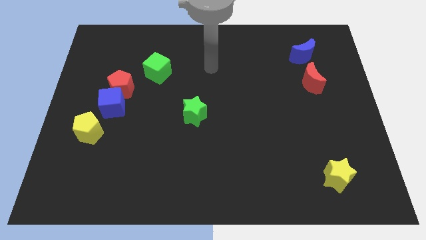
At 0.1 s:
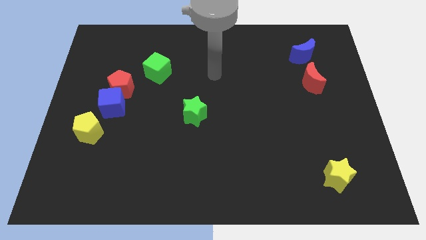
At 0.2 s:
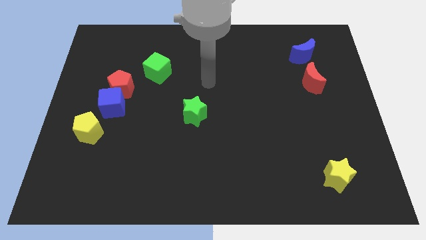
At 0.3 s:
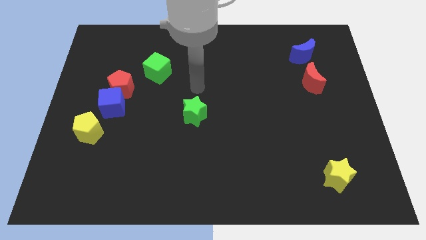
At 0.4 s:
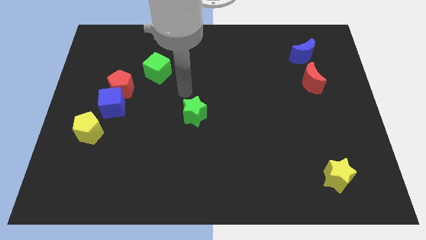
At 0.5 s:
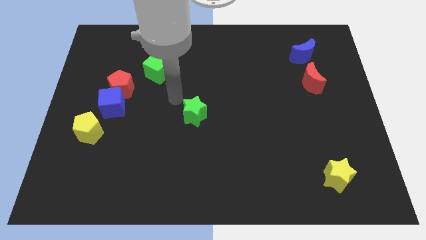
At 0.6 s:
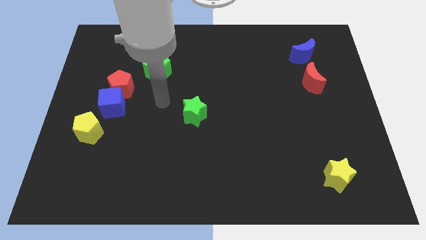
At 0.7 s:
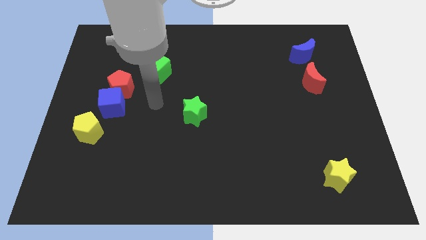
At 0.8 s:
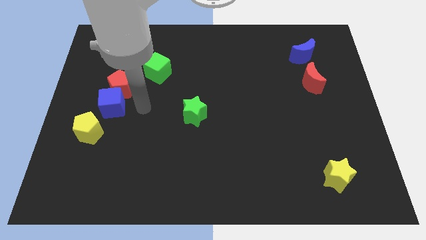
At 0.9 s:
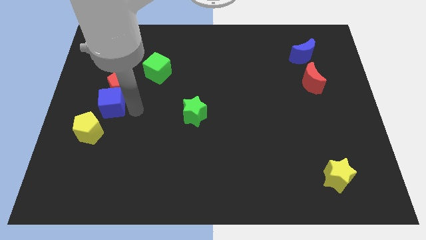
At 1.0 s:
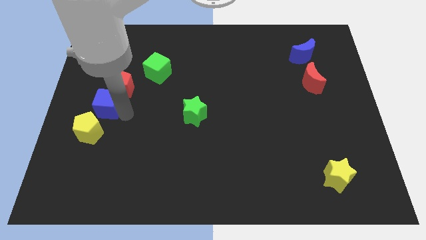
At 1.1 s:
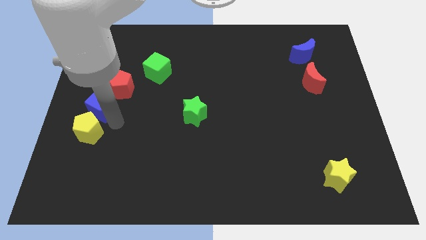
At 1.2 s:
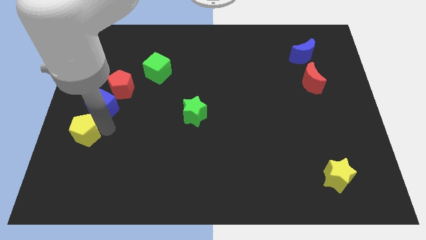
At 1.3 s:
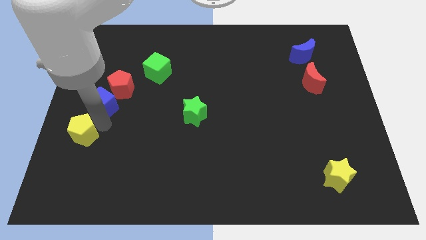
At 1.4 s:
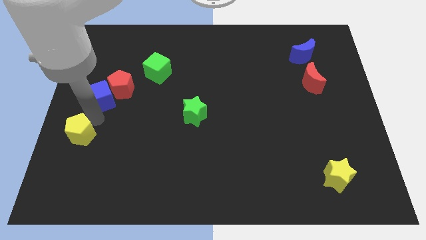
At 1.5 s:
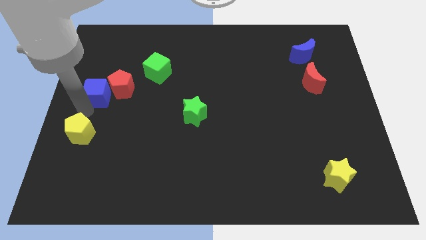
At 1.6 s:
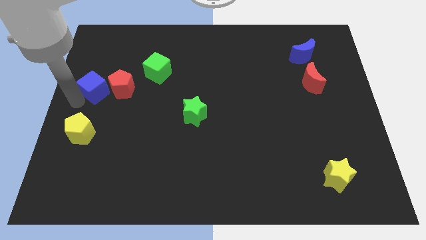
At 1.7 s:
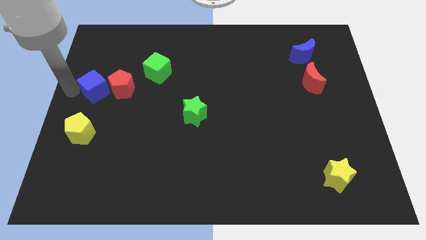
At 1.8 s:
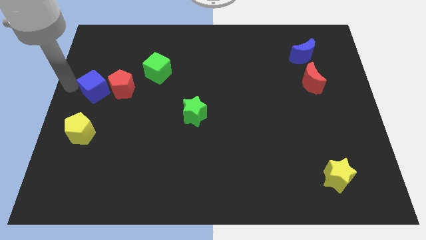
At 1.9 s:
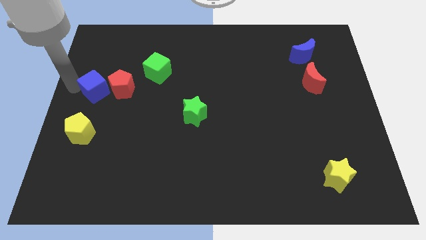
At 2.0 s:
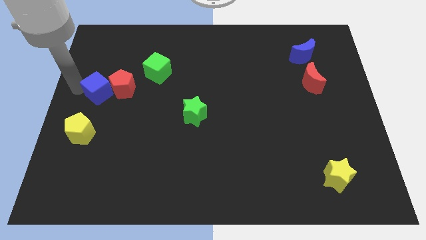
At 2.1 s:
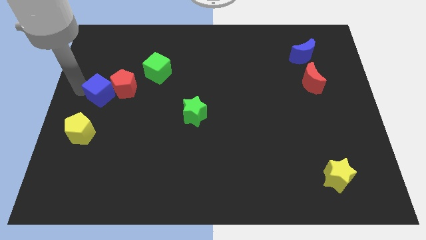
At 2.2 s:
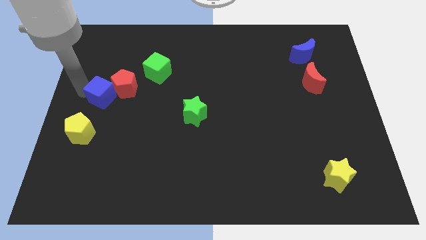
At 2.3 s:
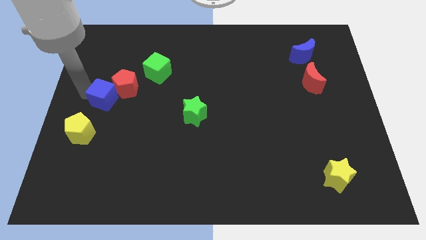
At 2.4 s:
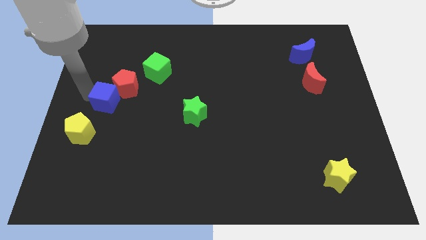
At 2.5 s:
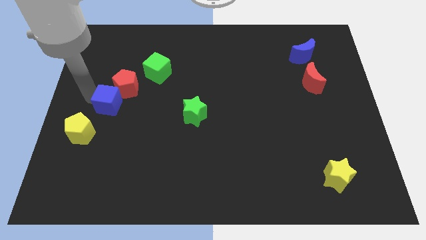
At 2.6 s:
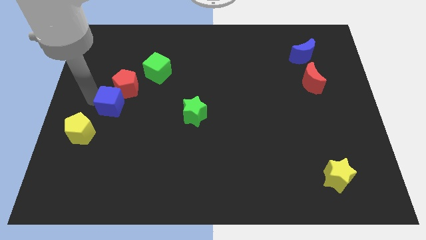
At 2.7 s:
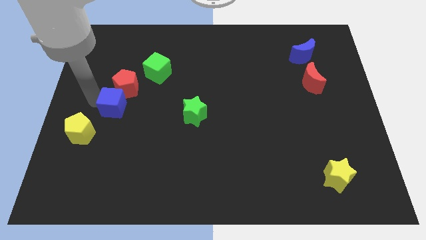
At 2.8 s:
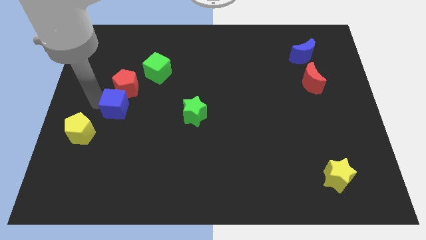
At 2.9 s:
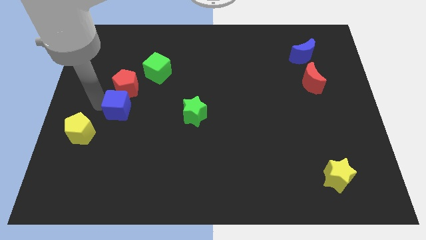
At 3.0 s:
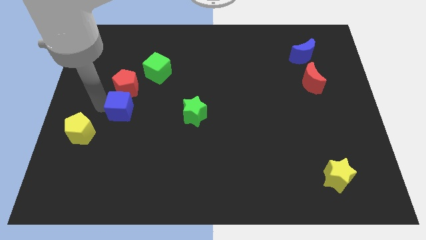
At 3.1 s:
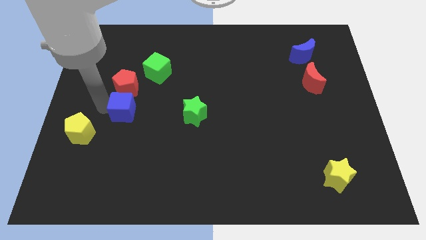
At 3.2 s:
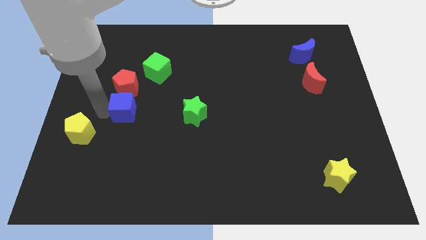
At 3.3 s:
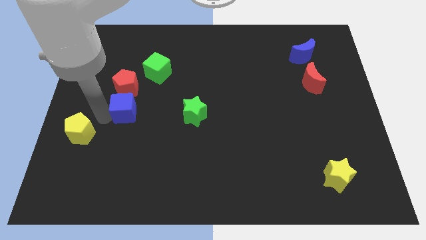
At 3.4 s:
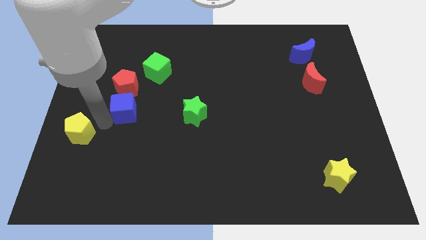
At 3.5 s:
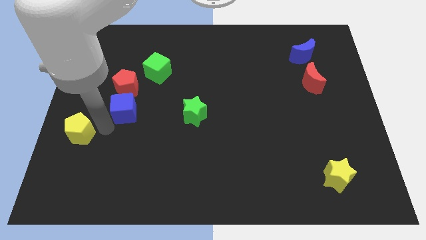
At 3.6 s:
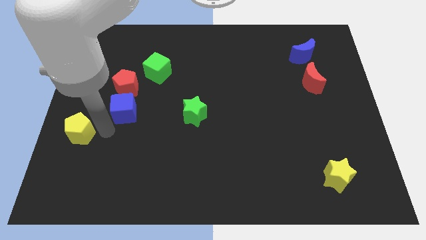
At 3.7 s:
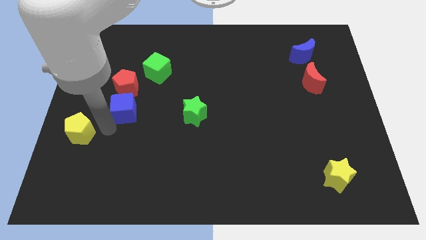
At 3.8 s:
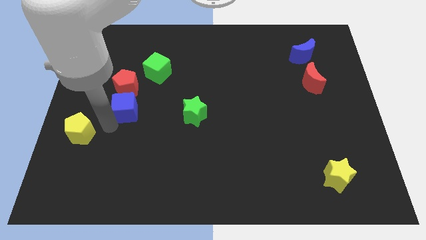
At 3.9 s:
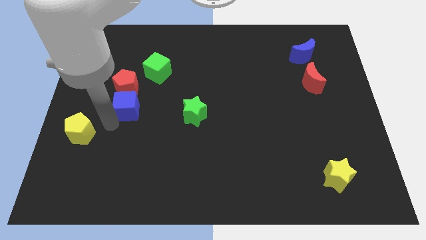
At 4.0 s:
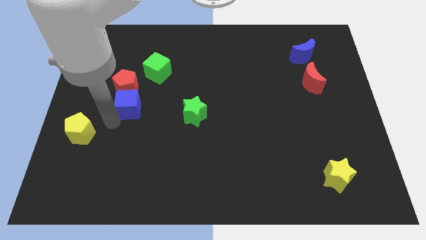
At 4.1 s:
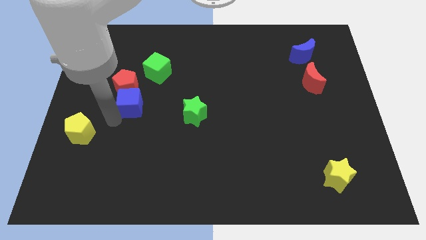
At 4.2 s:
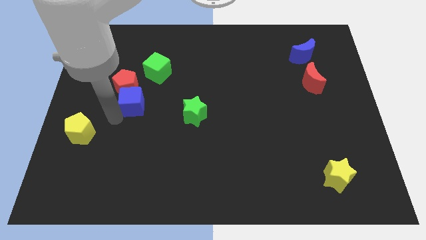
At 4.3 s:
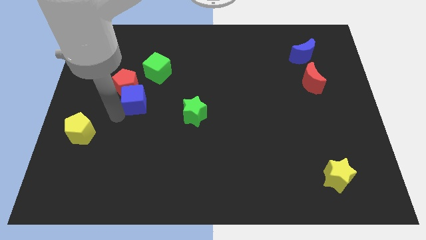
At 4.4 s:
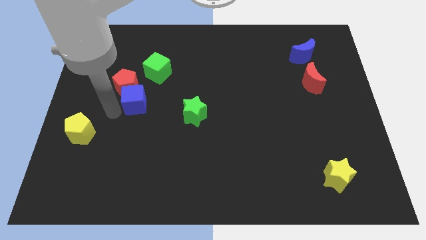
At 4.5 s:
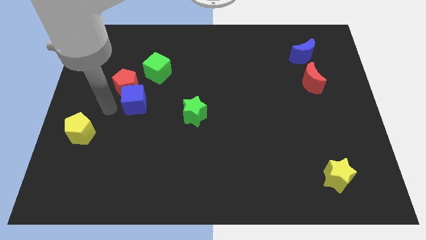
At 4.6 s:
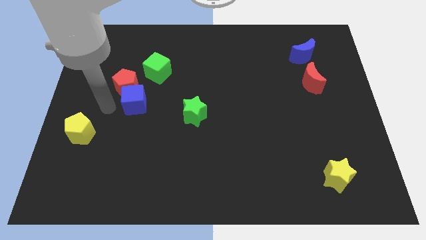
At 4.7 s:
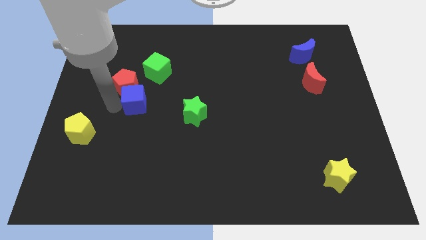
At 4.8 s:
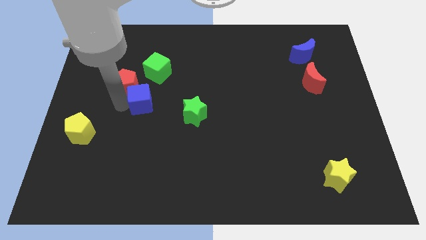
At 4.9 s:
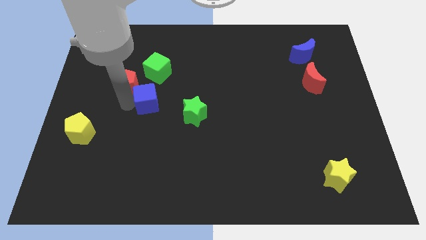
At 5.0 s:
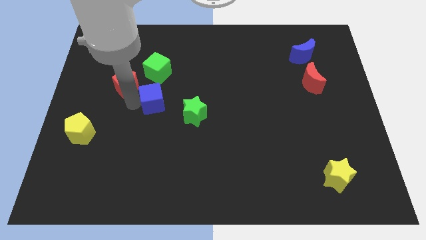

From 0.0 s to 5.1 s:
separate the blue cube from the red pentagon and yellow pentagon

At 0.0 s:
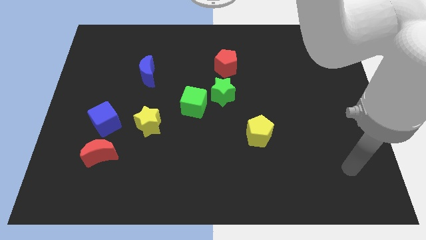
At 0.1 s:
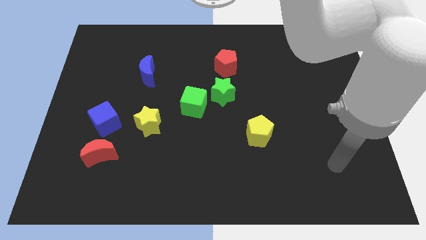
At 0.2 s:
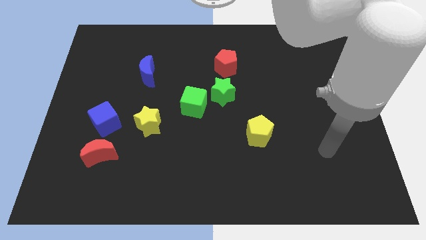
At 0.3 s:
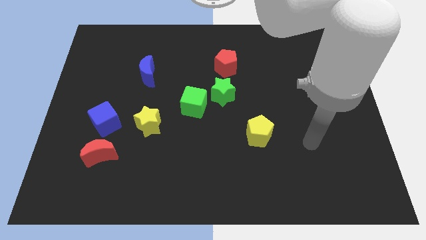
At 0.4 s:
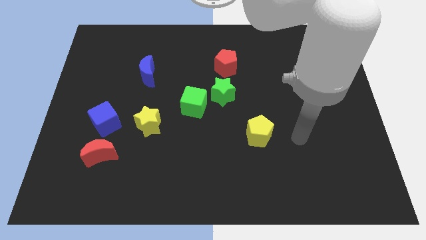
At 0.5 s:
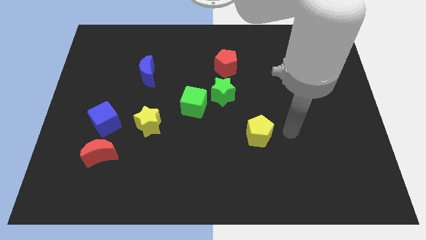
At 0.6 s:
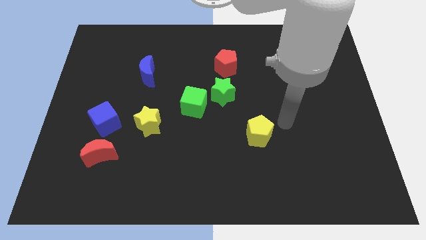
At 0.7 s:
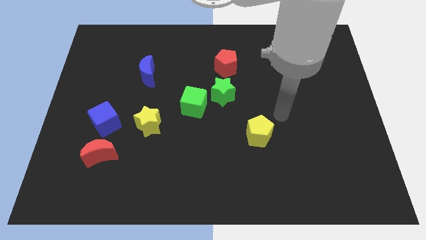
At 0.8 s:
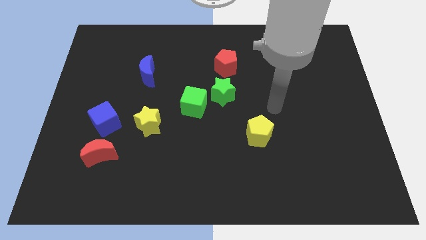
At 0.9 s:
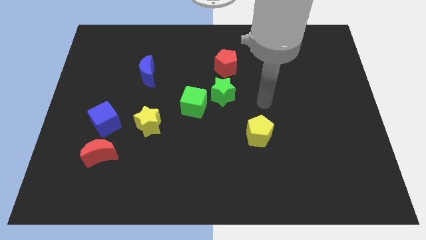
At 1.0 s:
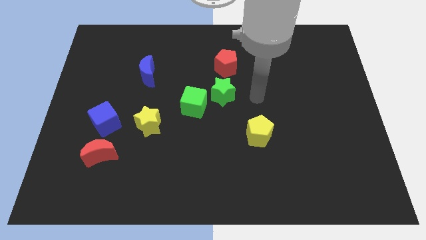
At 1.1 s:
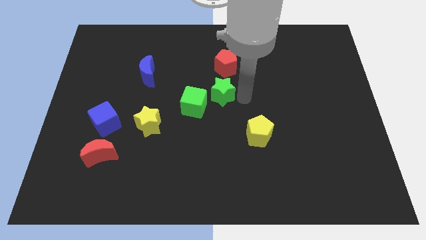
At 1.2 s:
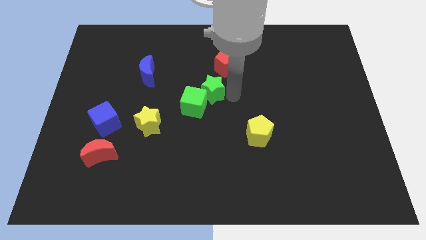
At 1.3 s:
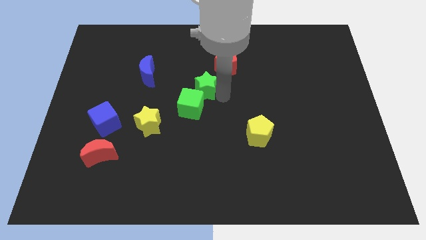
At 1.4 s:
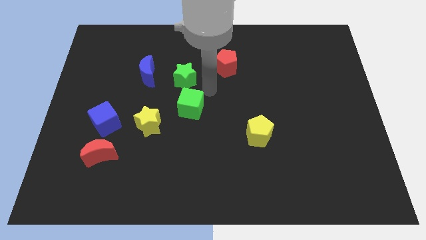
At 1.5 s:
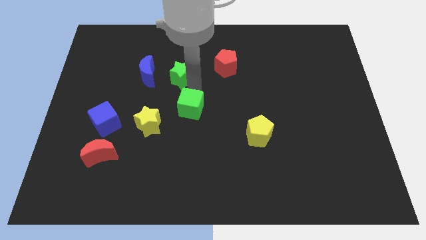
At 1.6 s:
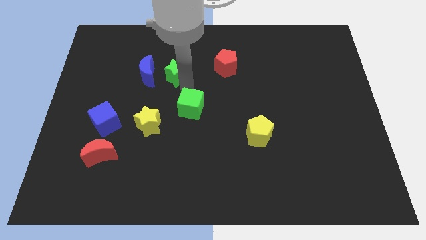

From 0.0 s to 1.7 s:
pull the green cube apart from the green star

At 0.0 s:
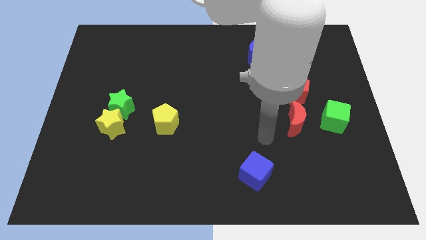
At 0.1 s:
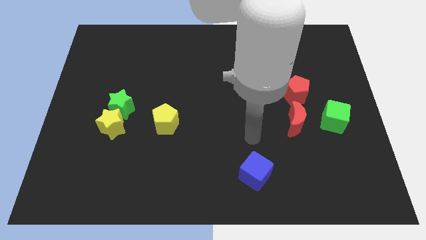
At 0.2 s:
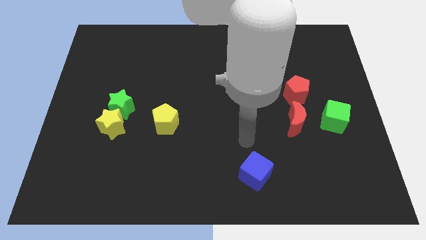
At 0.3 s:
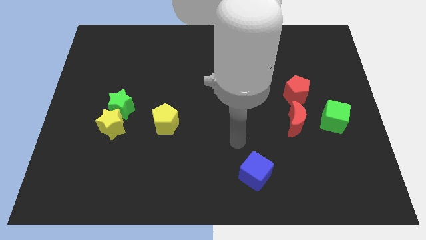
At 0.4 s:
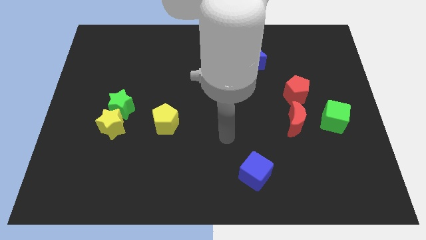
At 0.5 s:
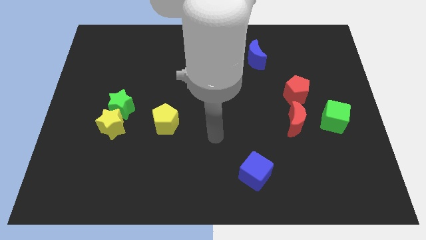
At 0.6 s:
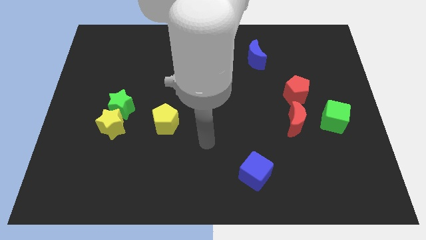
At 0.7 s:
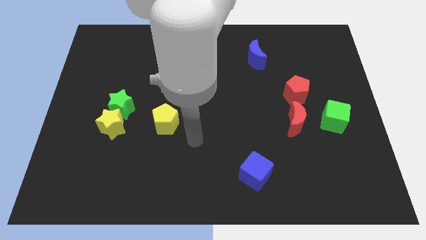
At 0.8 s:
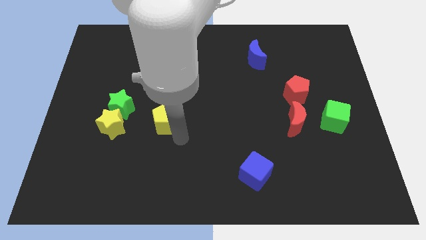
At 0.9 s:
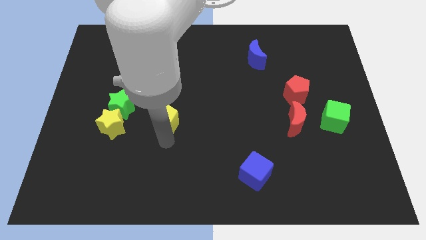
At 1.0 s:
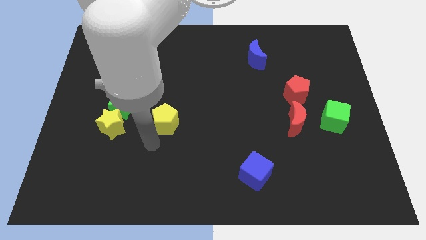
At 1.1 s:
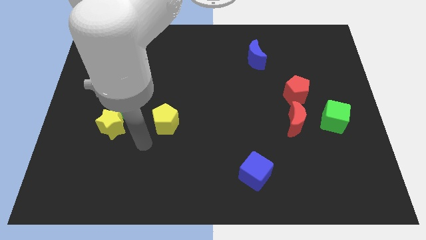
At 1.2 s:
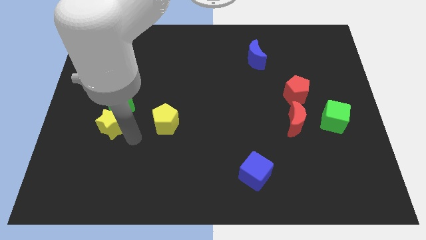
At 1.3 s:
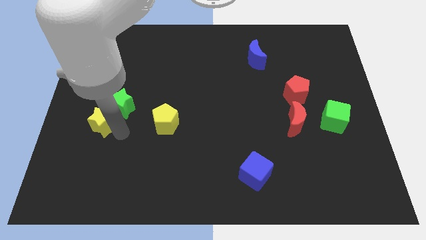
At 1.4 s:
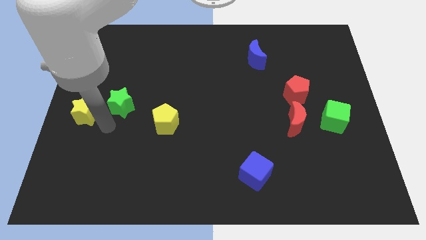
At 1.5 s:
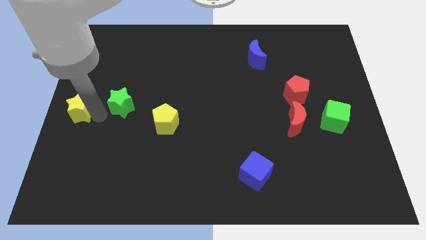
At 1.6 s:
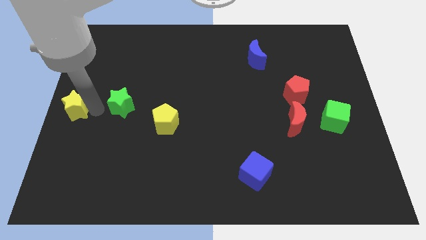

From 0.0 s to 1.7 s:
pull the green star apart from the yellow star

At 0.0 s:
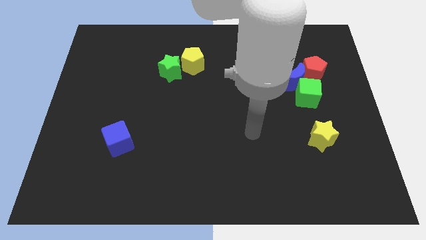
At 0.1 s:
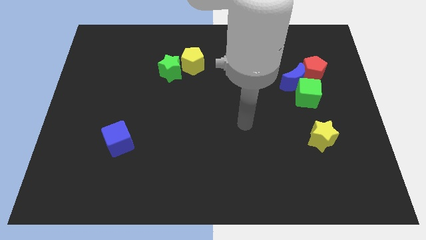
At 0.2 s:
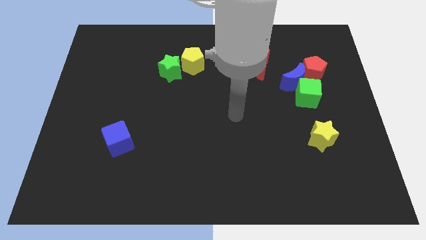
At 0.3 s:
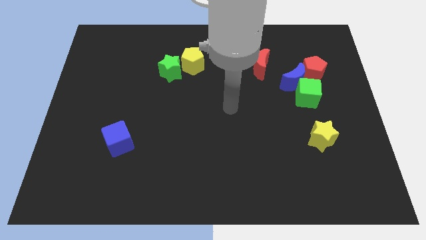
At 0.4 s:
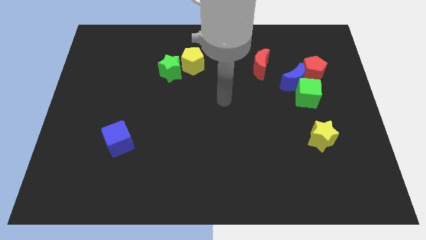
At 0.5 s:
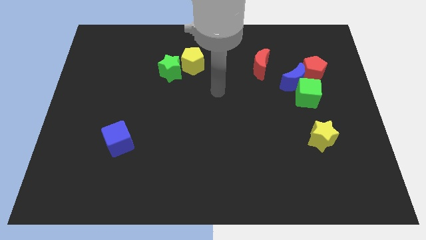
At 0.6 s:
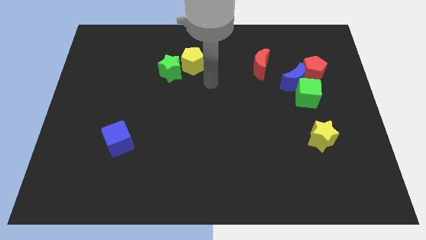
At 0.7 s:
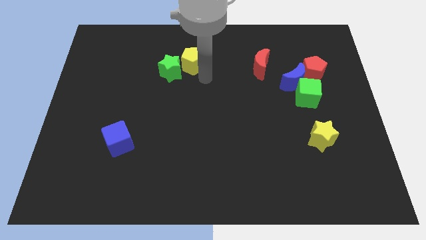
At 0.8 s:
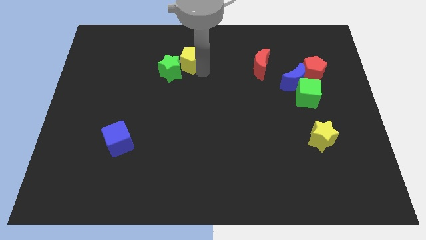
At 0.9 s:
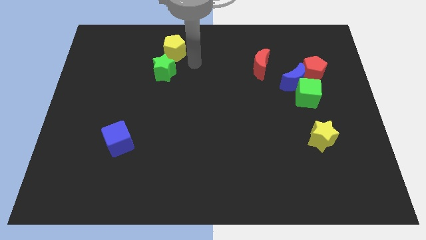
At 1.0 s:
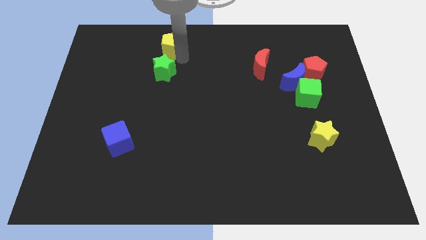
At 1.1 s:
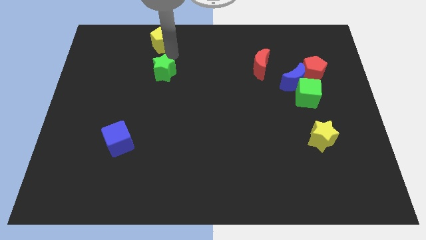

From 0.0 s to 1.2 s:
pull the green star apart from the yellow pentagon
